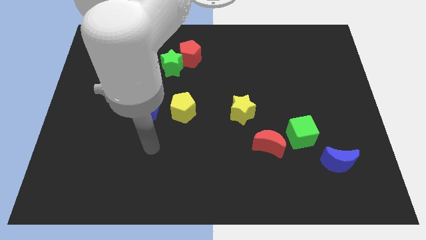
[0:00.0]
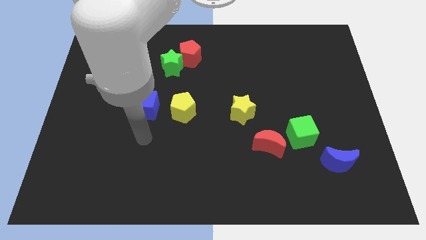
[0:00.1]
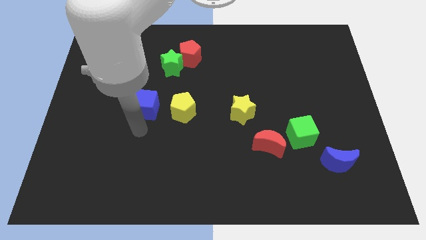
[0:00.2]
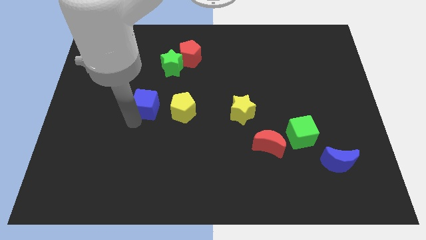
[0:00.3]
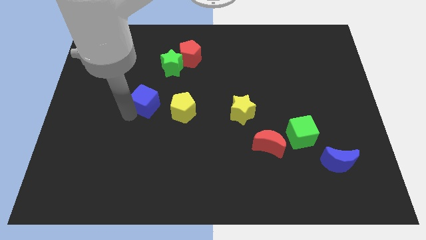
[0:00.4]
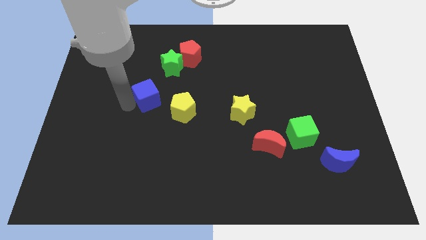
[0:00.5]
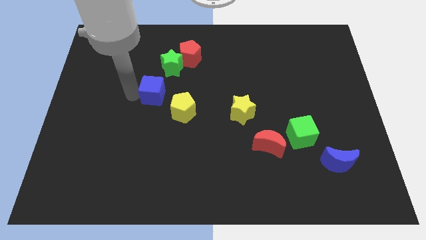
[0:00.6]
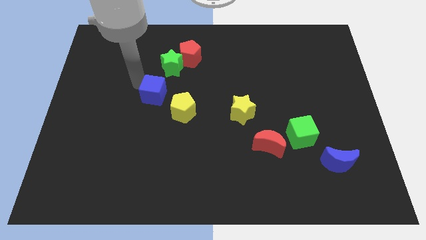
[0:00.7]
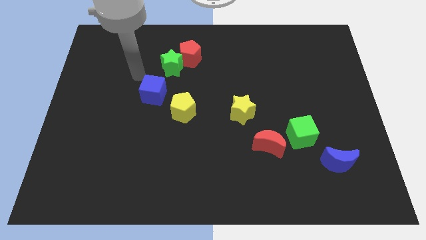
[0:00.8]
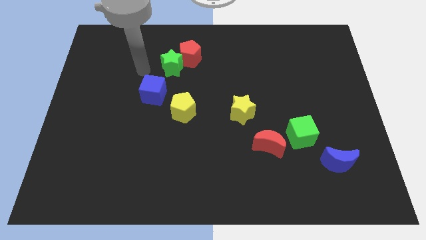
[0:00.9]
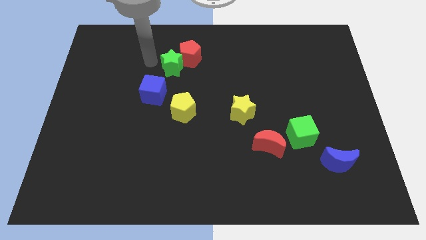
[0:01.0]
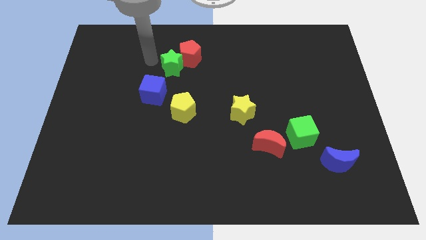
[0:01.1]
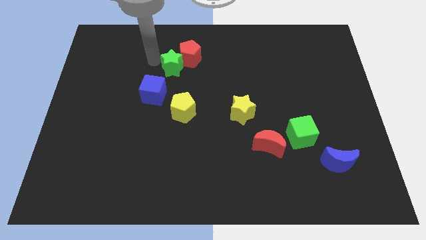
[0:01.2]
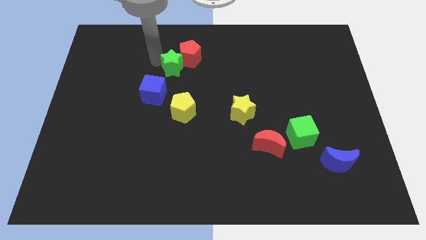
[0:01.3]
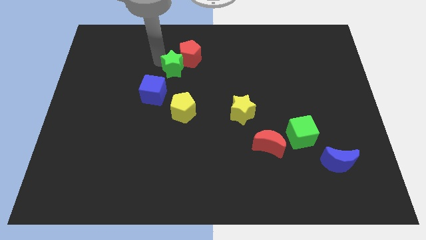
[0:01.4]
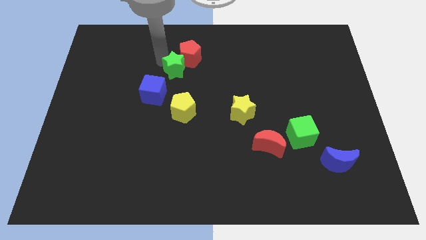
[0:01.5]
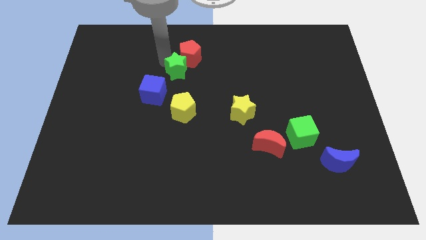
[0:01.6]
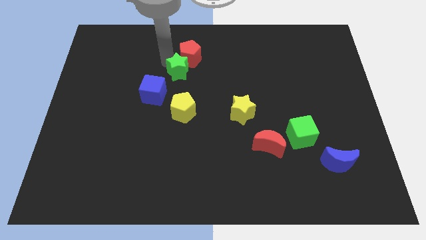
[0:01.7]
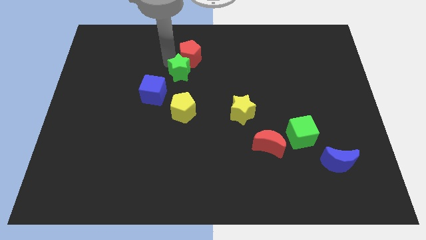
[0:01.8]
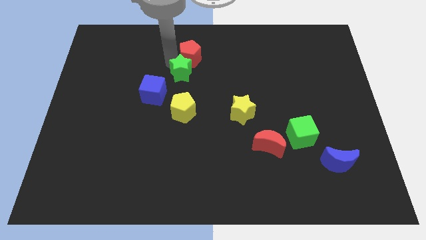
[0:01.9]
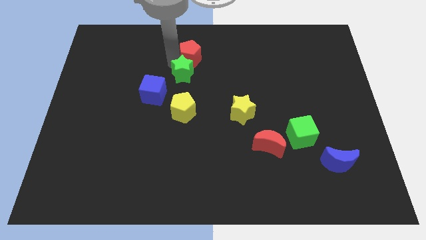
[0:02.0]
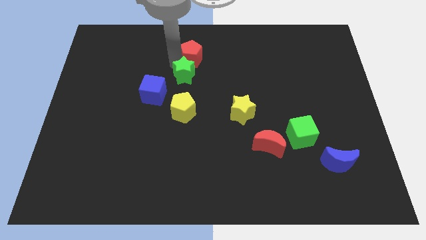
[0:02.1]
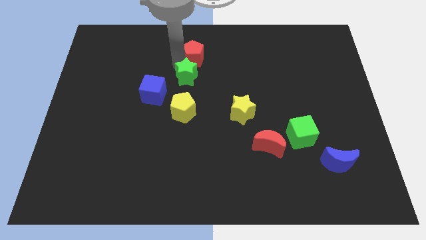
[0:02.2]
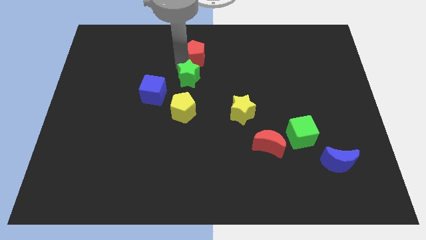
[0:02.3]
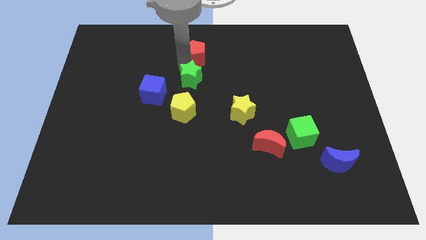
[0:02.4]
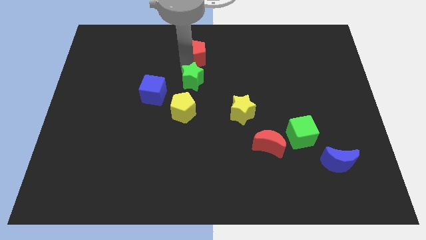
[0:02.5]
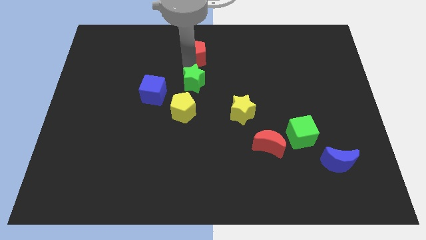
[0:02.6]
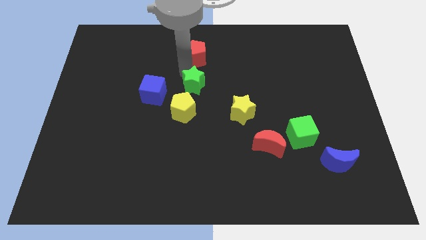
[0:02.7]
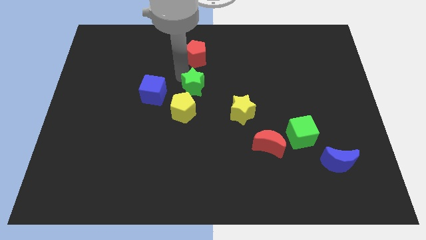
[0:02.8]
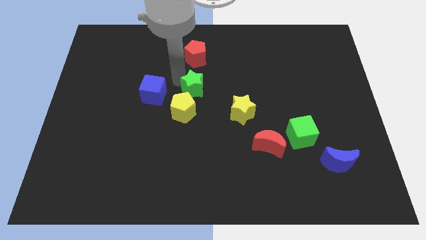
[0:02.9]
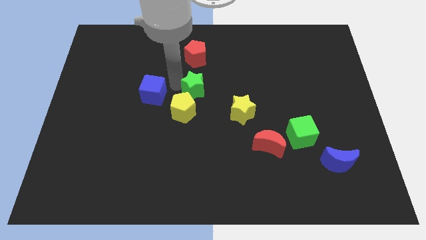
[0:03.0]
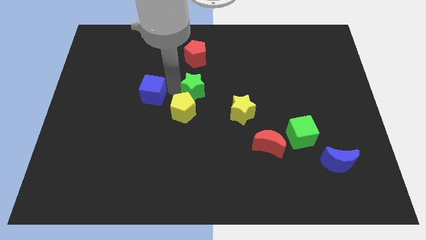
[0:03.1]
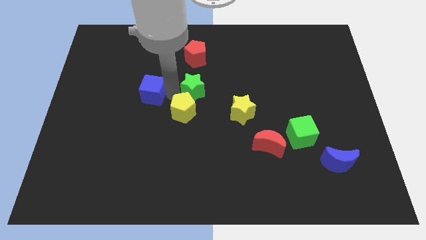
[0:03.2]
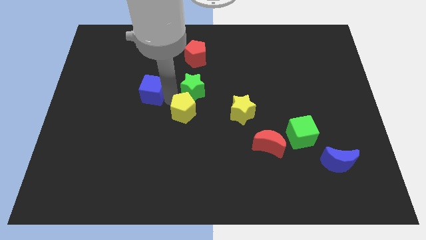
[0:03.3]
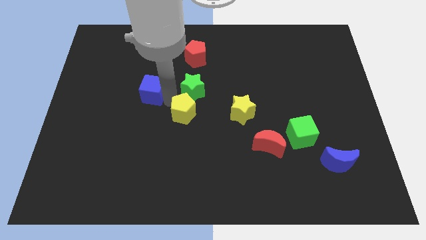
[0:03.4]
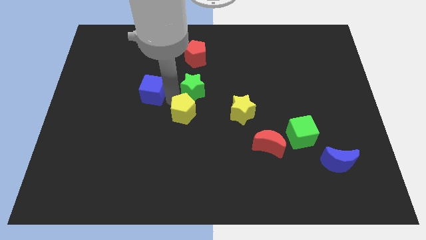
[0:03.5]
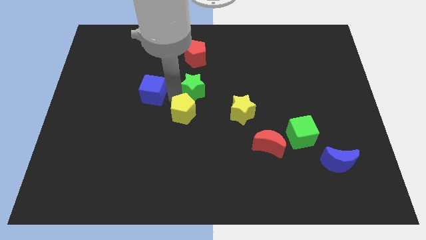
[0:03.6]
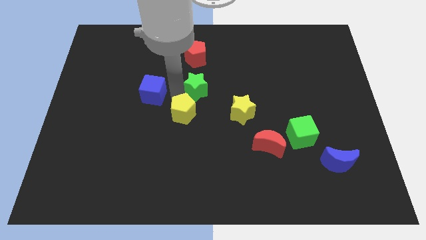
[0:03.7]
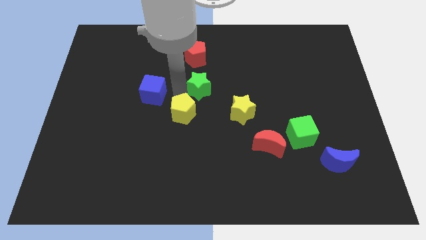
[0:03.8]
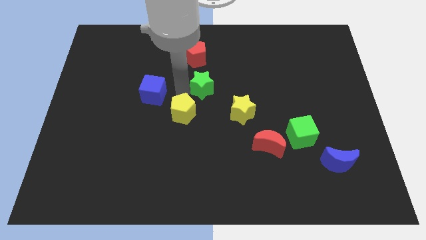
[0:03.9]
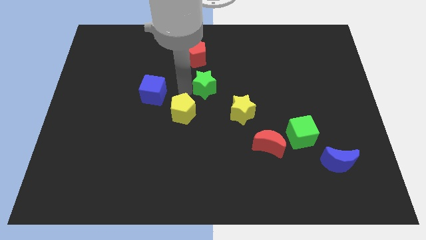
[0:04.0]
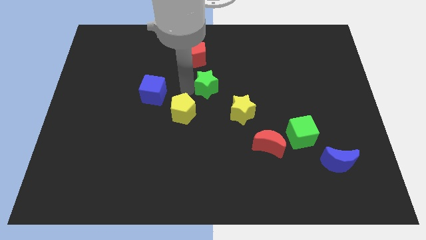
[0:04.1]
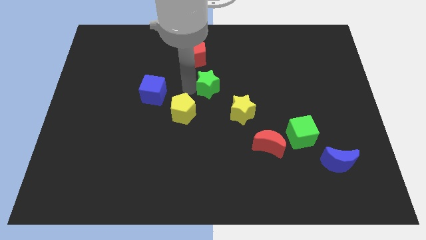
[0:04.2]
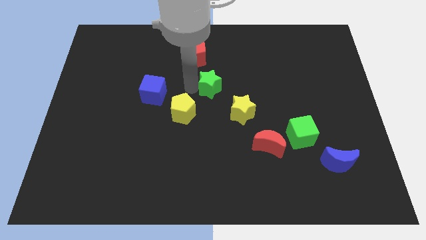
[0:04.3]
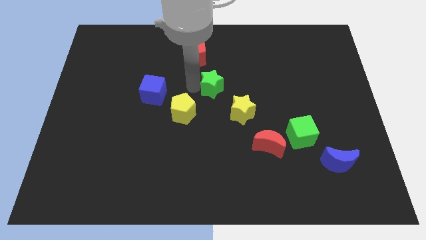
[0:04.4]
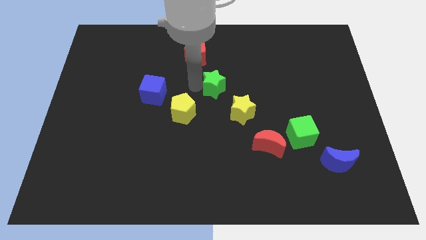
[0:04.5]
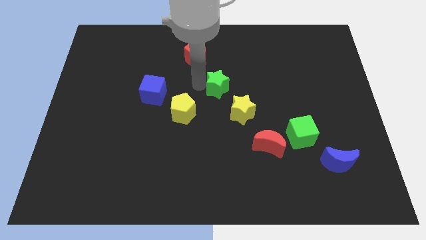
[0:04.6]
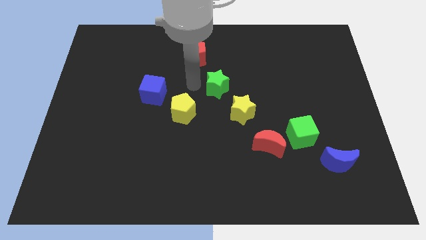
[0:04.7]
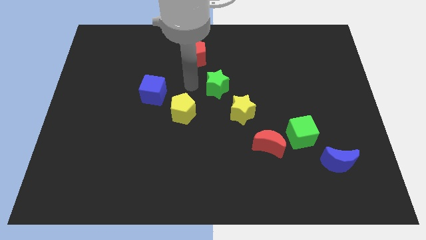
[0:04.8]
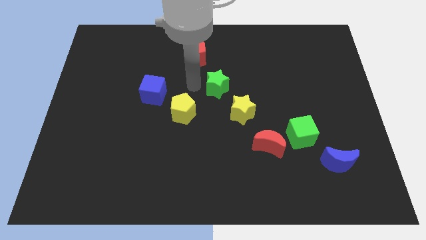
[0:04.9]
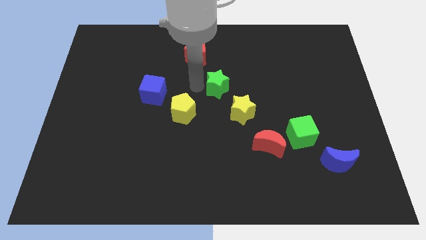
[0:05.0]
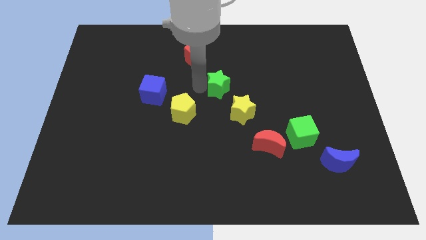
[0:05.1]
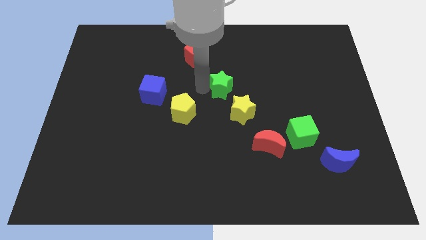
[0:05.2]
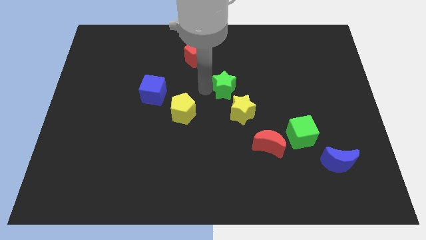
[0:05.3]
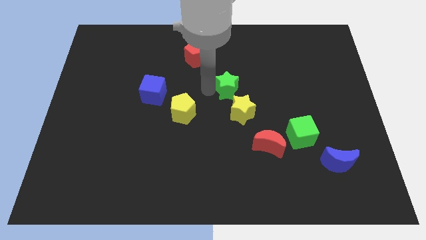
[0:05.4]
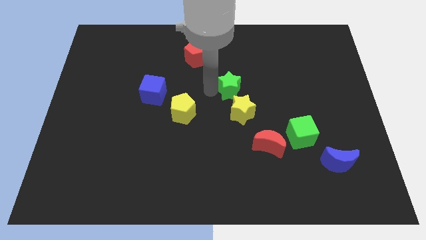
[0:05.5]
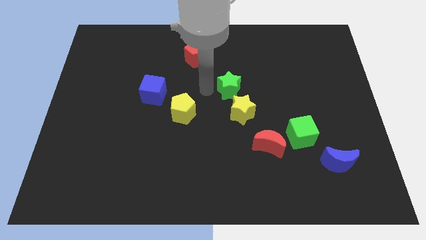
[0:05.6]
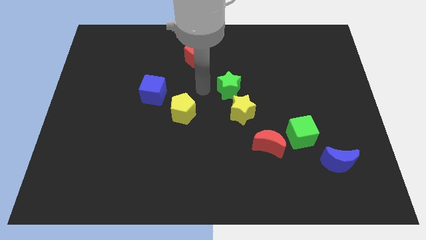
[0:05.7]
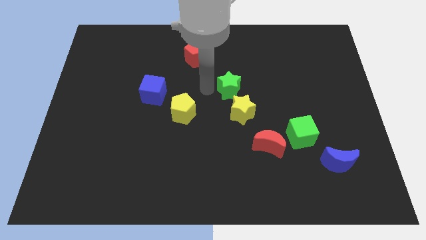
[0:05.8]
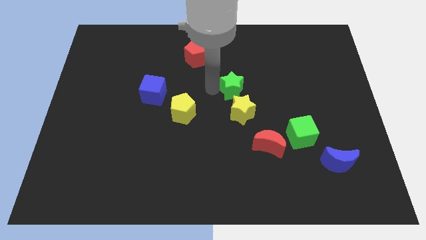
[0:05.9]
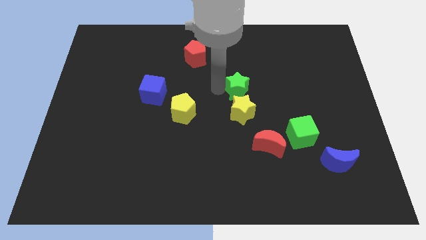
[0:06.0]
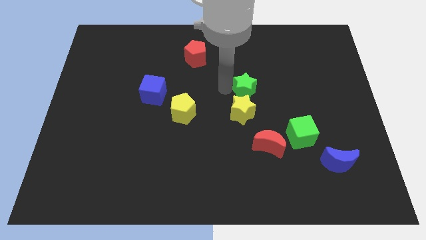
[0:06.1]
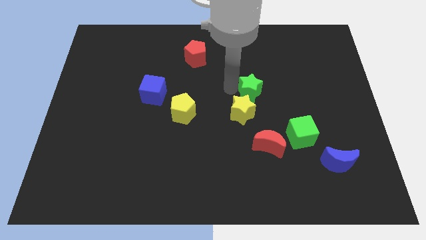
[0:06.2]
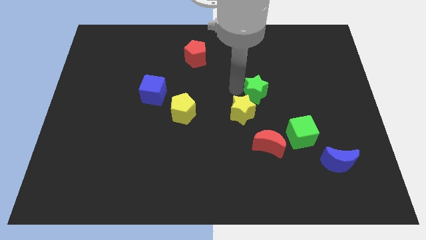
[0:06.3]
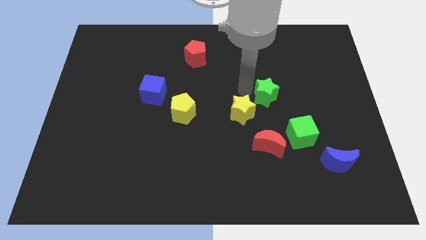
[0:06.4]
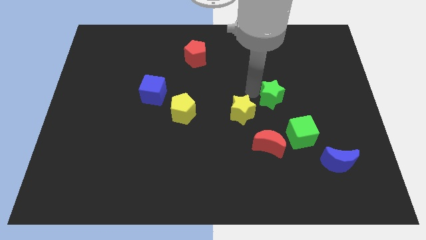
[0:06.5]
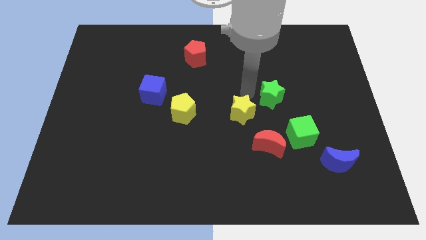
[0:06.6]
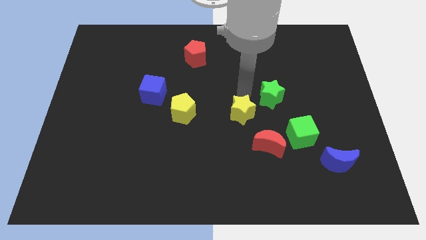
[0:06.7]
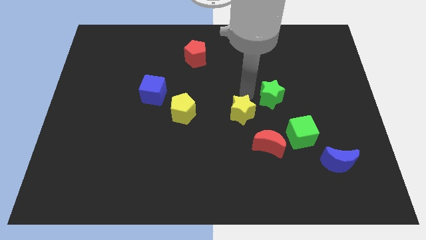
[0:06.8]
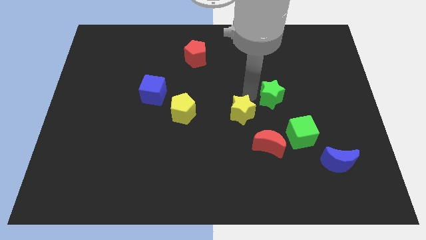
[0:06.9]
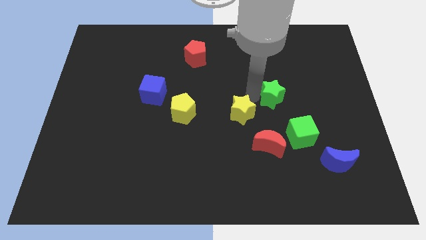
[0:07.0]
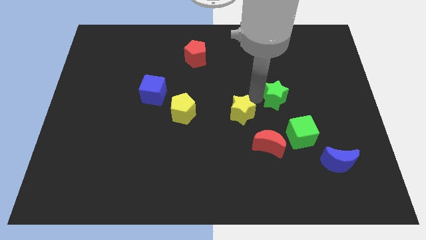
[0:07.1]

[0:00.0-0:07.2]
move the green star to the top side of the green cube
